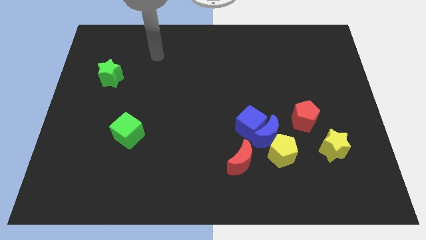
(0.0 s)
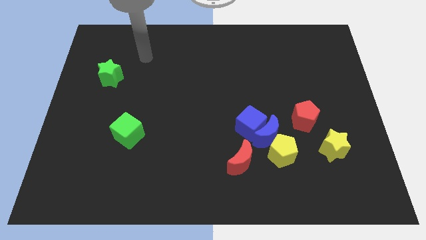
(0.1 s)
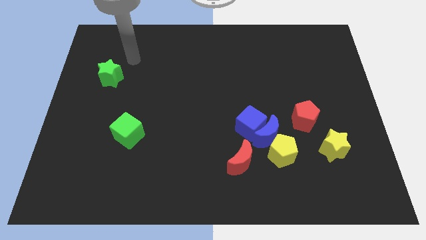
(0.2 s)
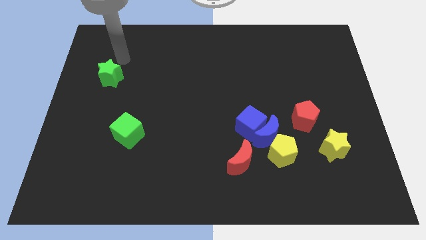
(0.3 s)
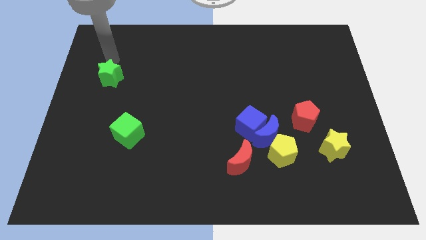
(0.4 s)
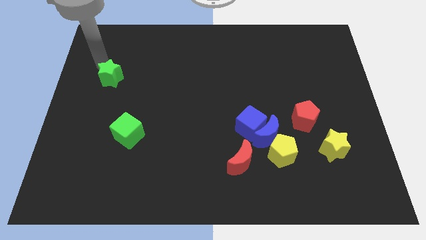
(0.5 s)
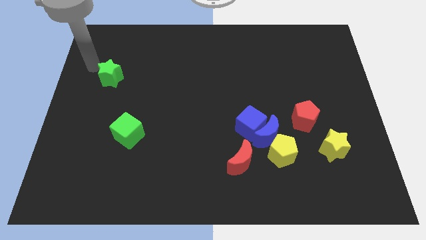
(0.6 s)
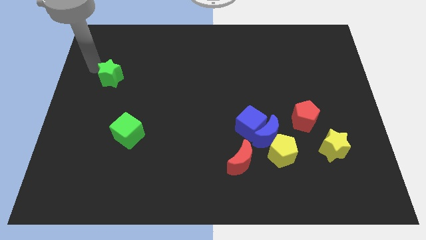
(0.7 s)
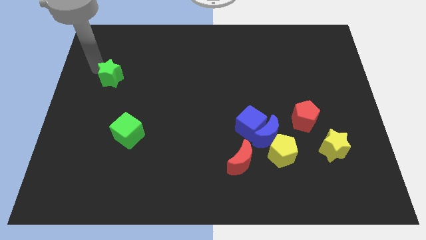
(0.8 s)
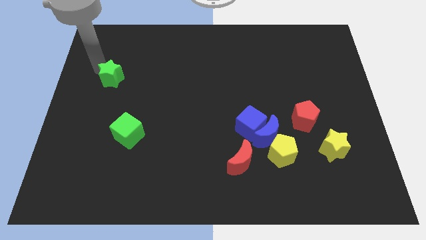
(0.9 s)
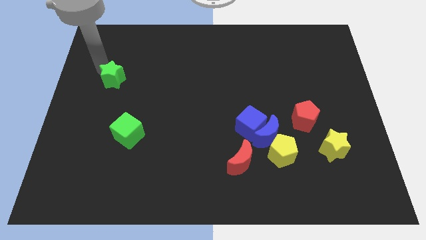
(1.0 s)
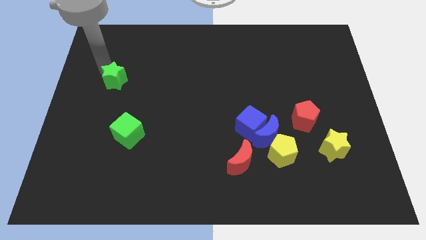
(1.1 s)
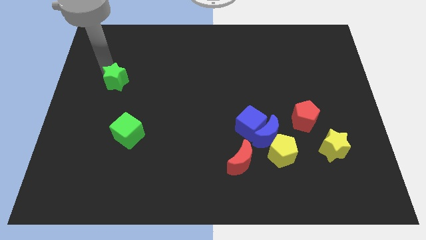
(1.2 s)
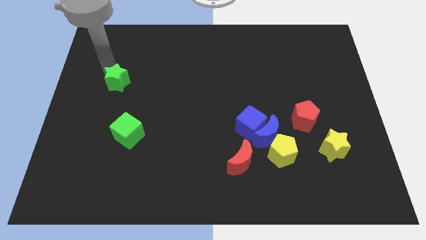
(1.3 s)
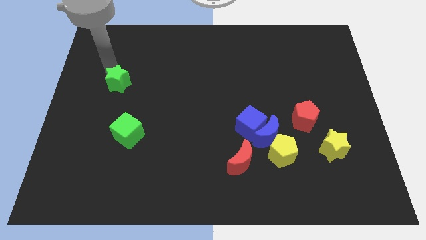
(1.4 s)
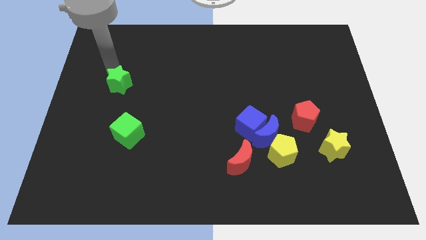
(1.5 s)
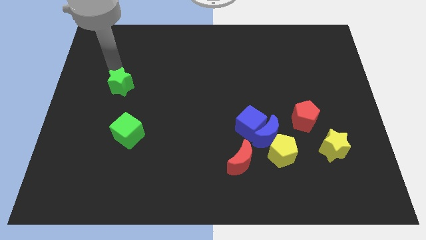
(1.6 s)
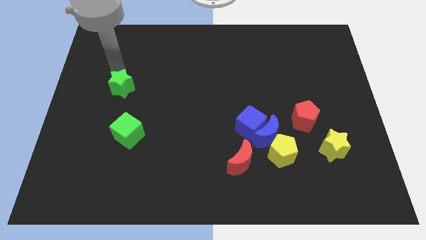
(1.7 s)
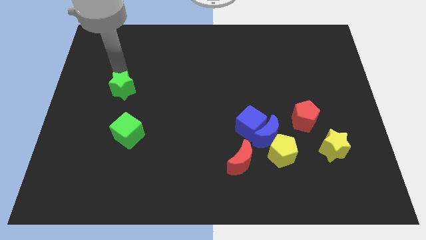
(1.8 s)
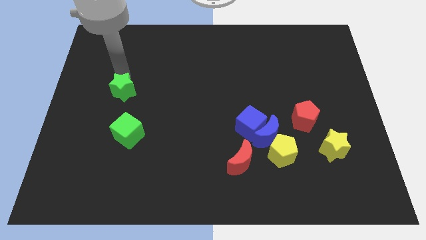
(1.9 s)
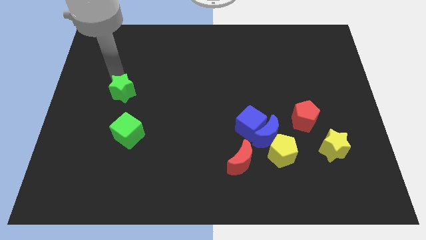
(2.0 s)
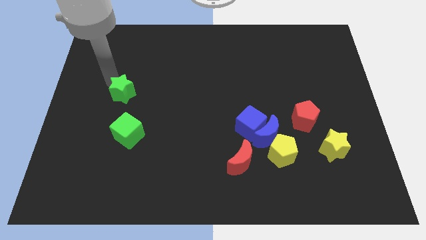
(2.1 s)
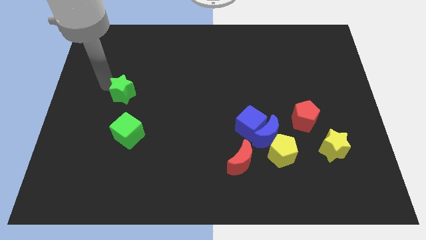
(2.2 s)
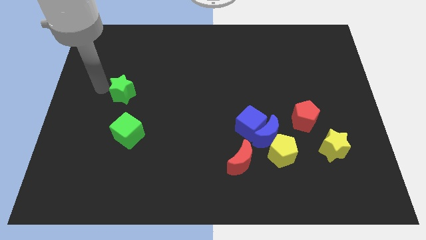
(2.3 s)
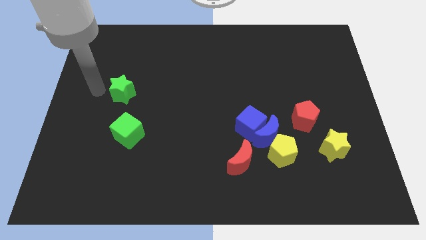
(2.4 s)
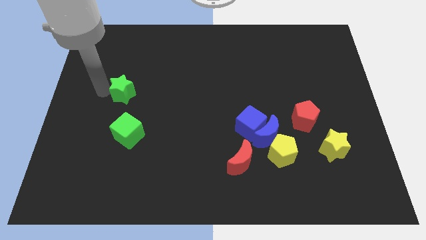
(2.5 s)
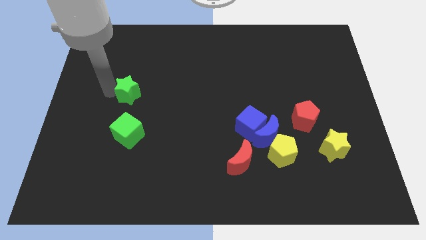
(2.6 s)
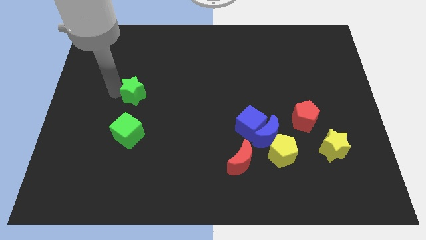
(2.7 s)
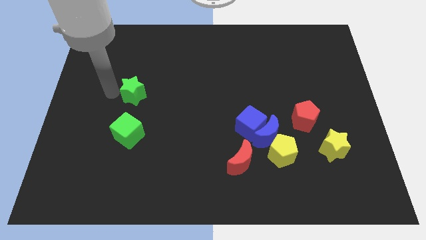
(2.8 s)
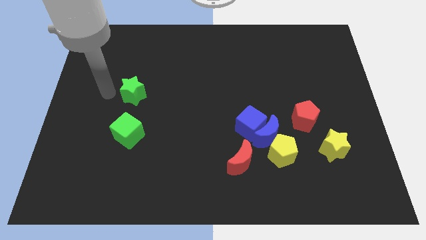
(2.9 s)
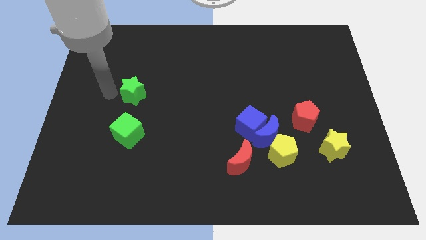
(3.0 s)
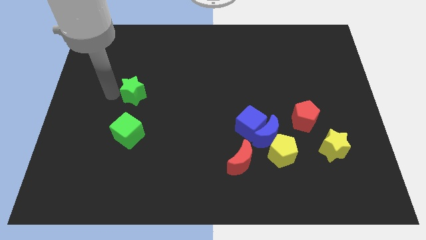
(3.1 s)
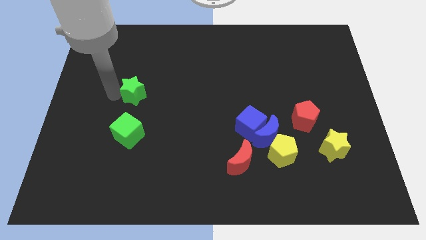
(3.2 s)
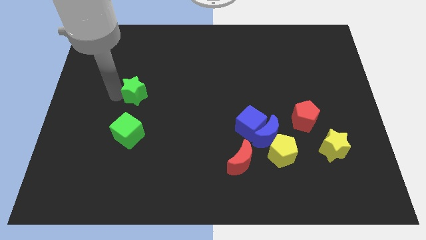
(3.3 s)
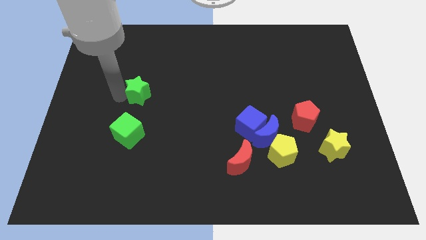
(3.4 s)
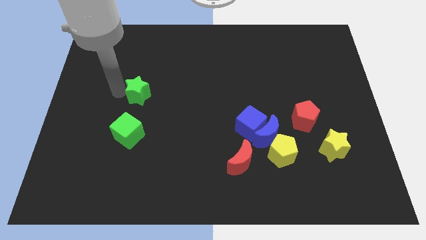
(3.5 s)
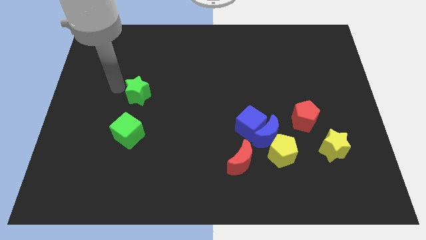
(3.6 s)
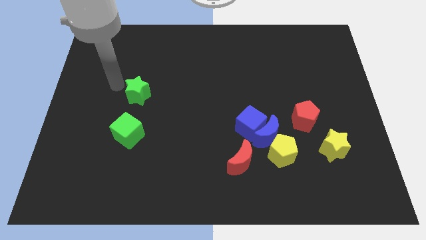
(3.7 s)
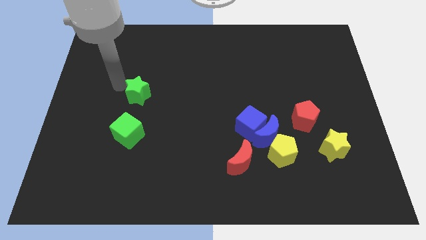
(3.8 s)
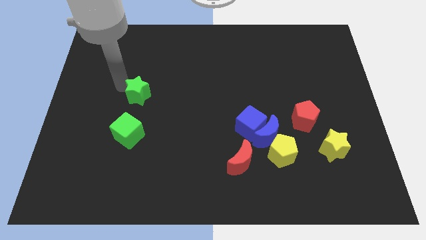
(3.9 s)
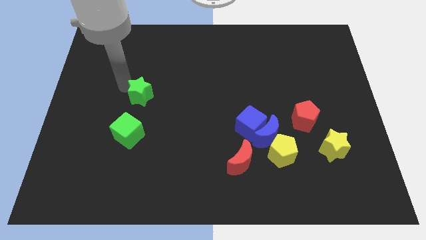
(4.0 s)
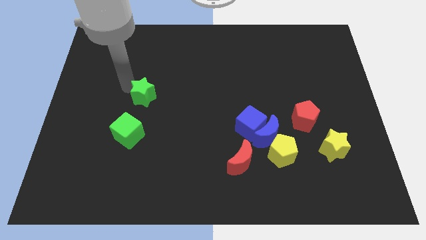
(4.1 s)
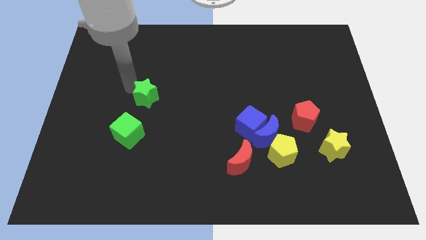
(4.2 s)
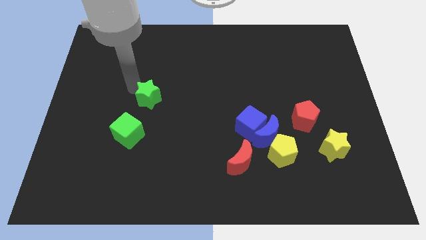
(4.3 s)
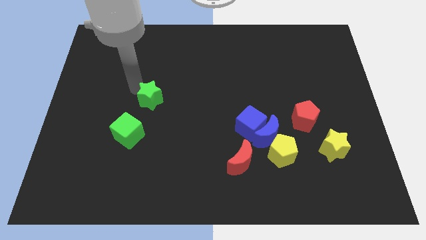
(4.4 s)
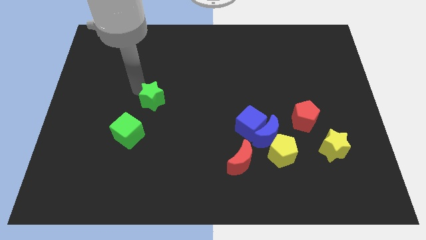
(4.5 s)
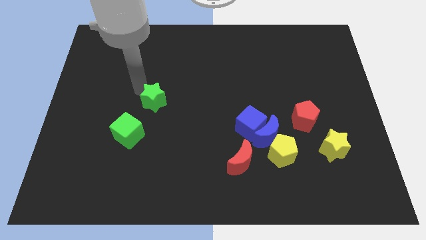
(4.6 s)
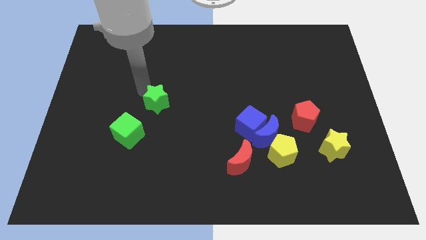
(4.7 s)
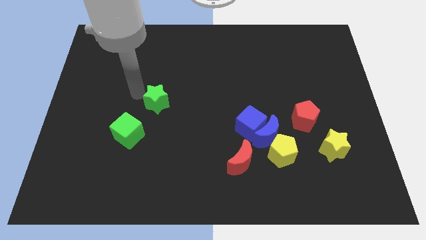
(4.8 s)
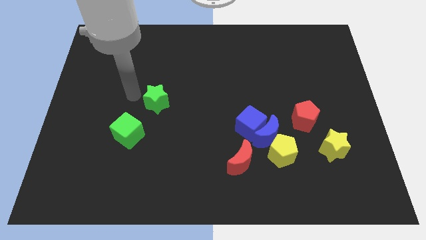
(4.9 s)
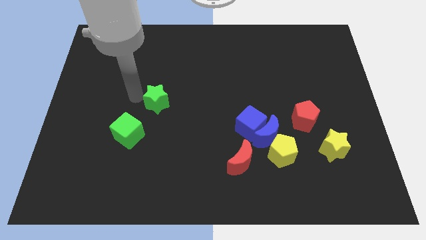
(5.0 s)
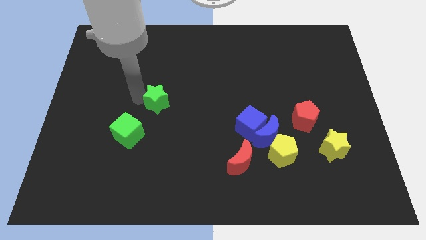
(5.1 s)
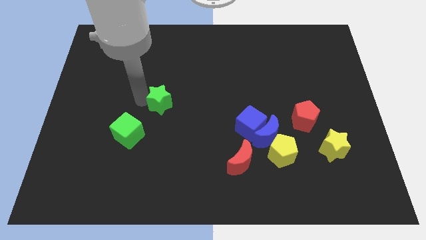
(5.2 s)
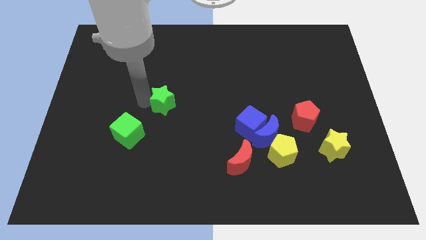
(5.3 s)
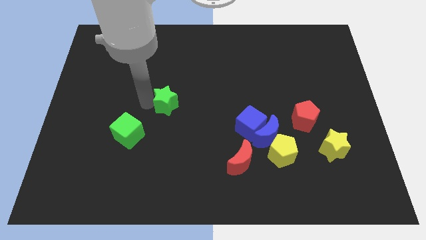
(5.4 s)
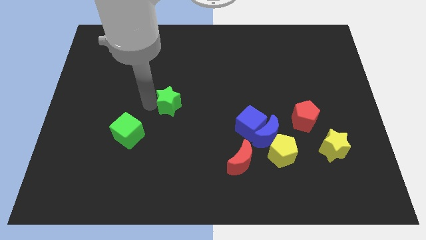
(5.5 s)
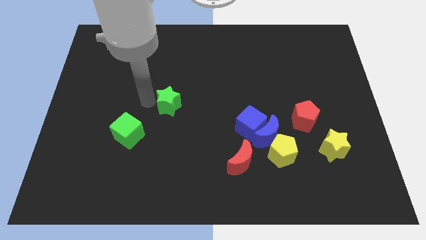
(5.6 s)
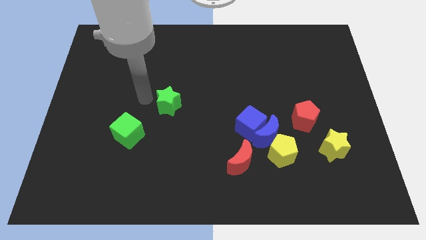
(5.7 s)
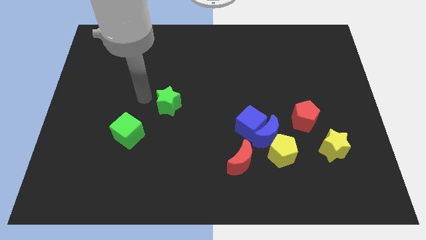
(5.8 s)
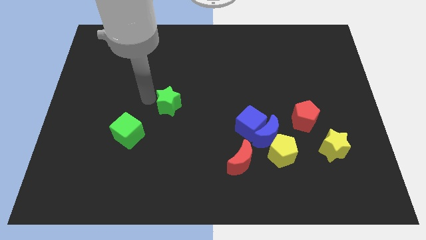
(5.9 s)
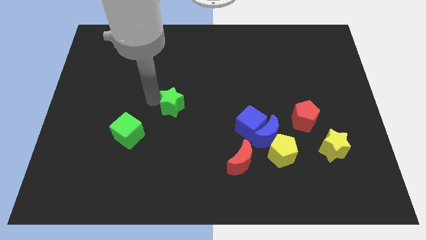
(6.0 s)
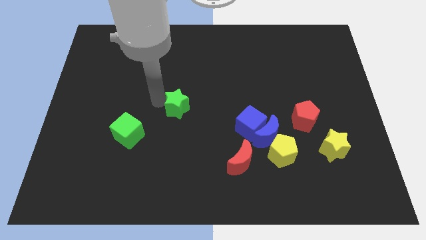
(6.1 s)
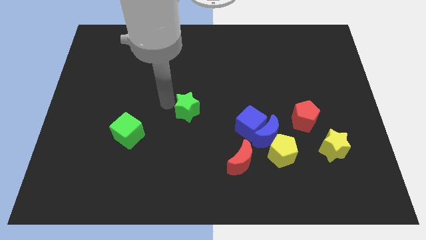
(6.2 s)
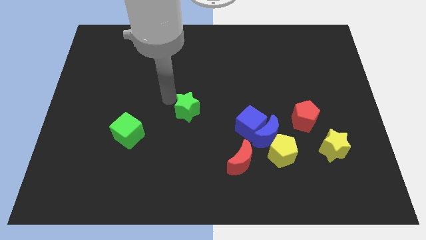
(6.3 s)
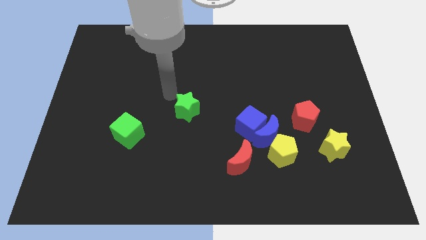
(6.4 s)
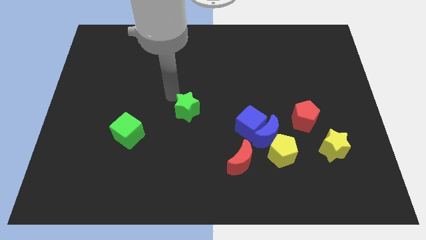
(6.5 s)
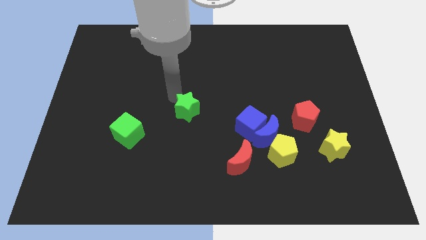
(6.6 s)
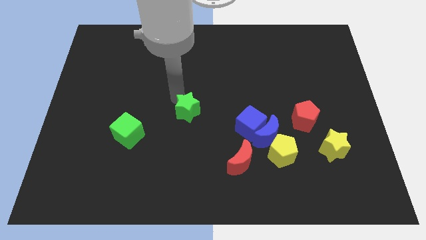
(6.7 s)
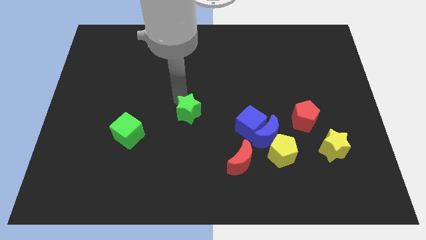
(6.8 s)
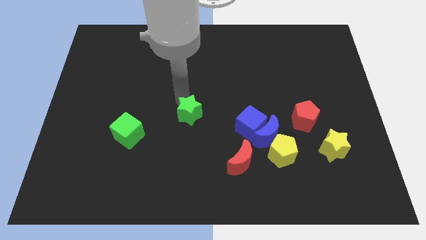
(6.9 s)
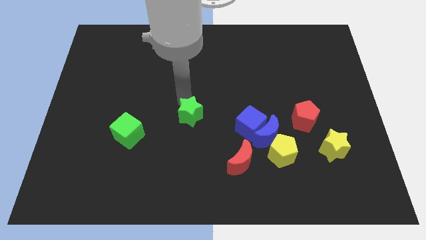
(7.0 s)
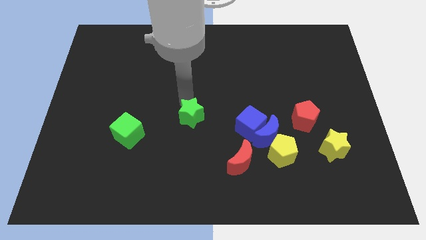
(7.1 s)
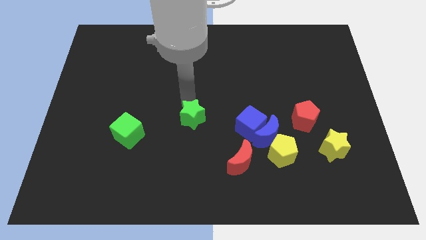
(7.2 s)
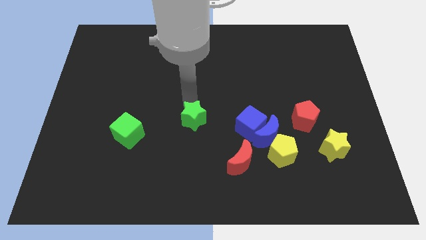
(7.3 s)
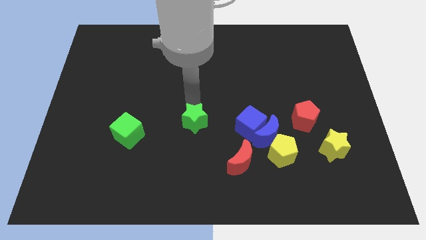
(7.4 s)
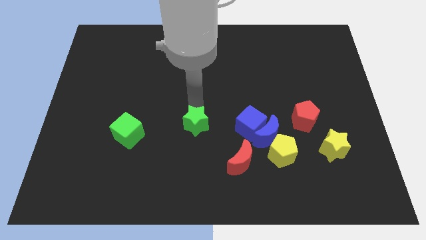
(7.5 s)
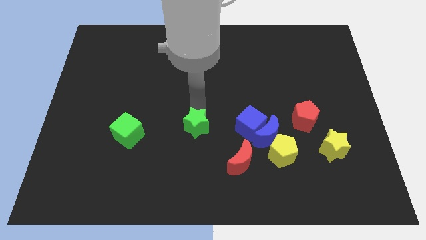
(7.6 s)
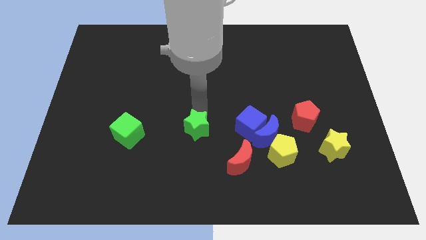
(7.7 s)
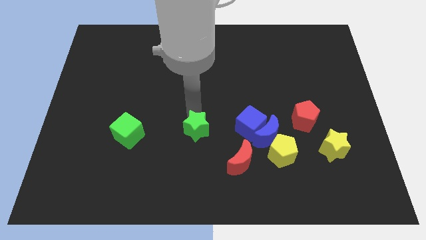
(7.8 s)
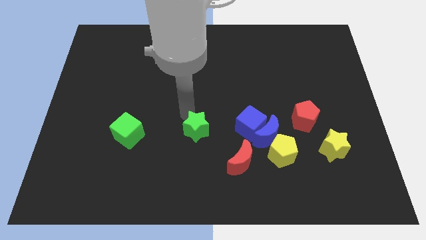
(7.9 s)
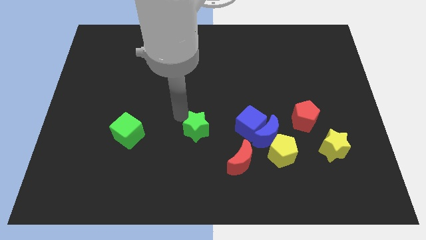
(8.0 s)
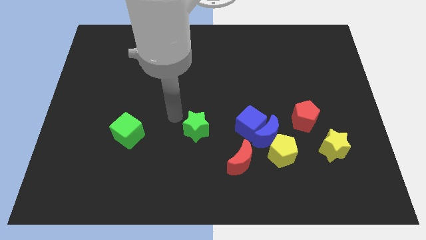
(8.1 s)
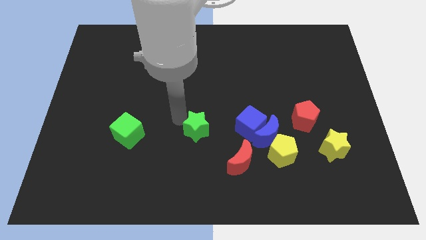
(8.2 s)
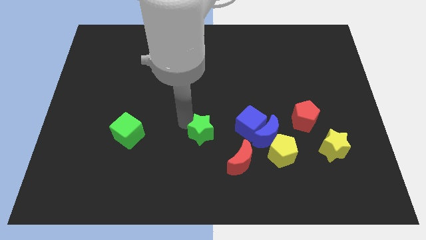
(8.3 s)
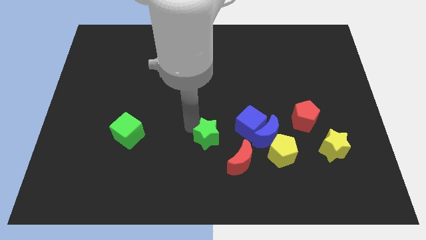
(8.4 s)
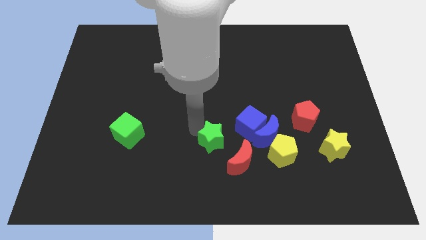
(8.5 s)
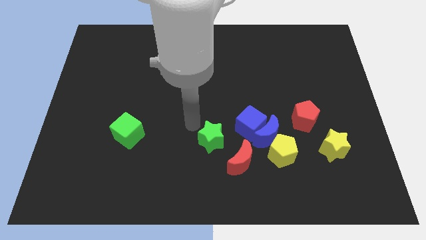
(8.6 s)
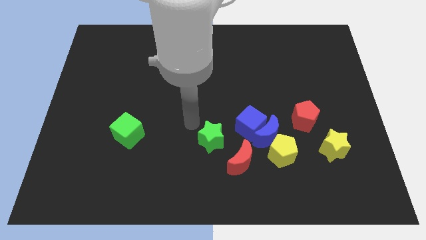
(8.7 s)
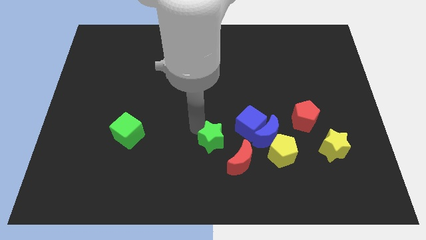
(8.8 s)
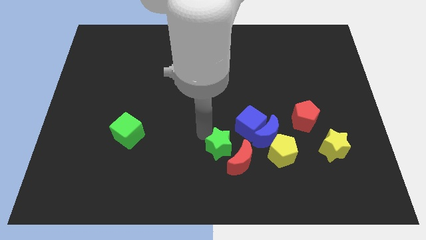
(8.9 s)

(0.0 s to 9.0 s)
push the green star next to the red moon
